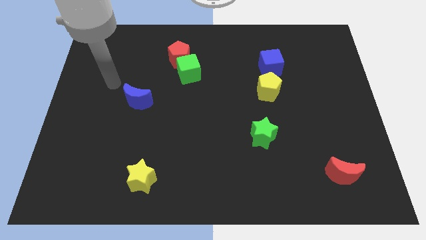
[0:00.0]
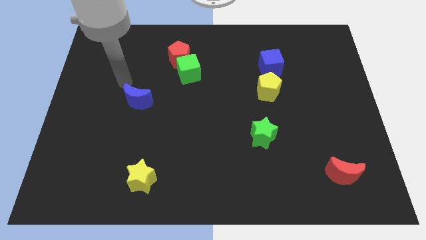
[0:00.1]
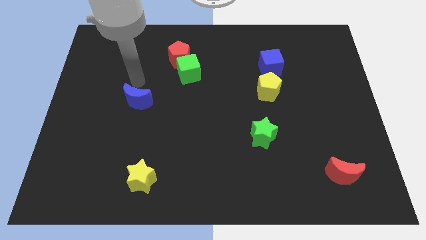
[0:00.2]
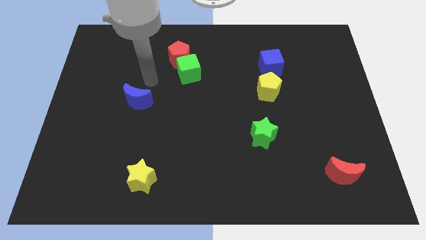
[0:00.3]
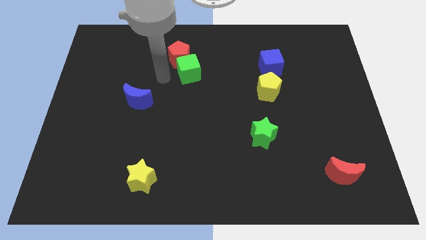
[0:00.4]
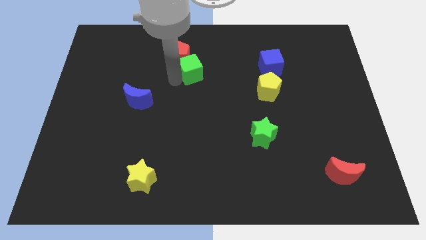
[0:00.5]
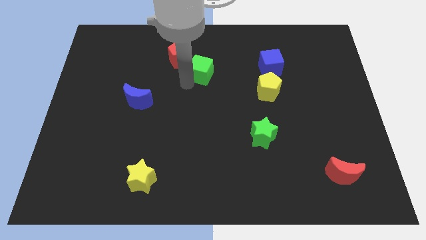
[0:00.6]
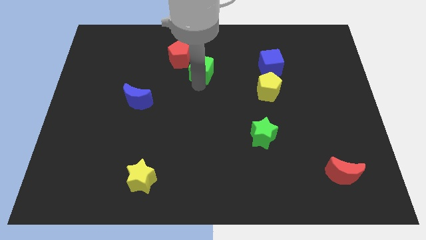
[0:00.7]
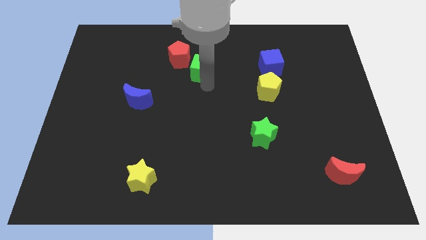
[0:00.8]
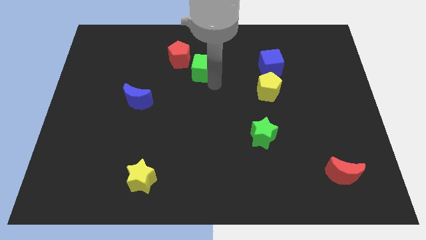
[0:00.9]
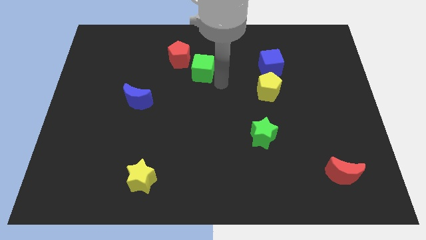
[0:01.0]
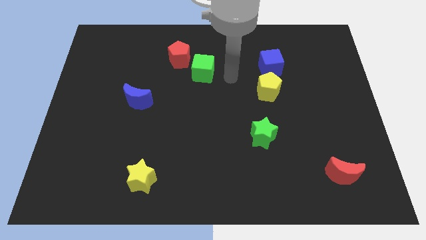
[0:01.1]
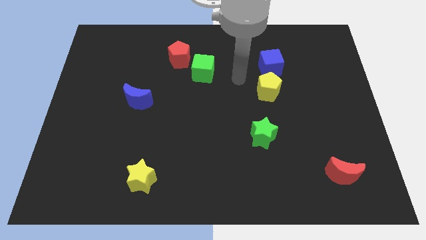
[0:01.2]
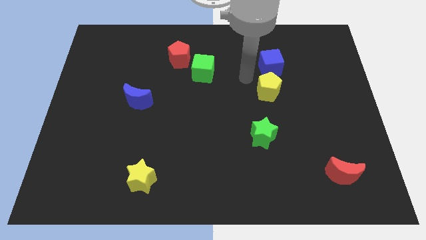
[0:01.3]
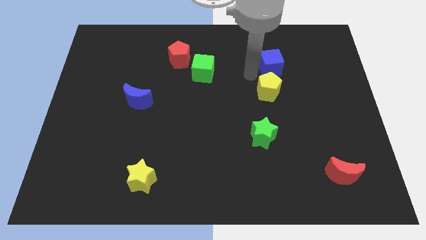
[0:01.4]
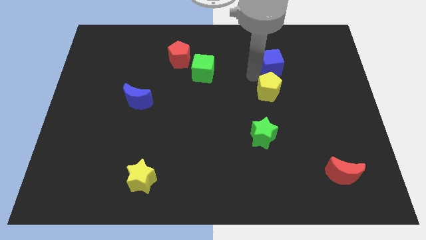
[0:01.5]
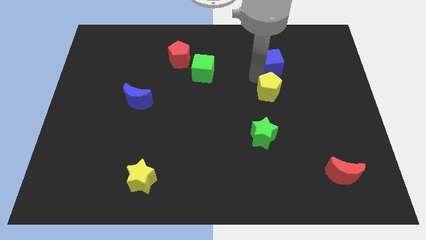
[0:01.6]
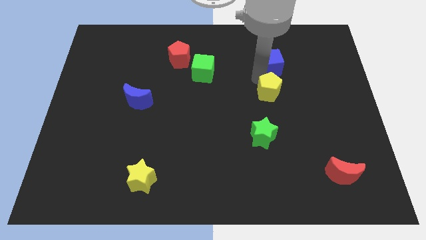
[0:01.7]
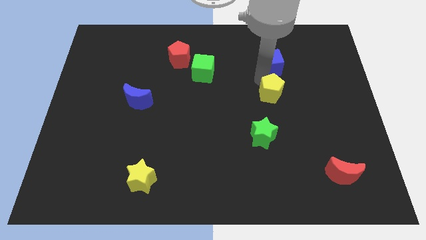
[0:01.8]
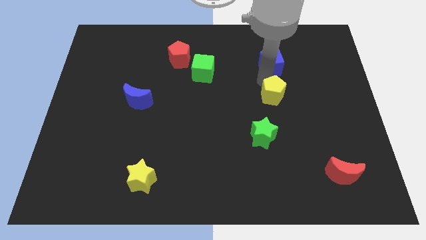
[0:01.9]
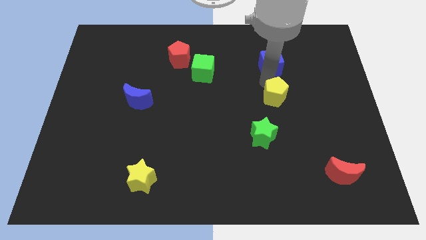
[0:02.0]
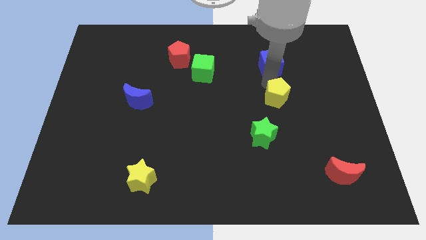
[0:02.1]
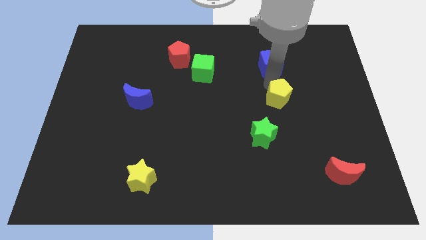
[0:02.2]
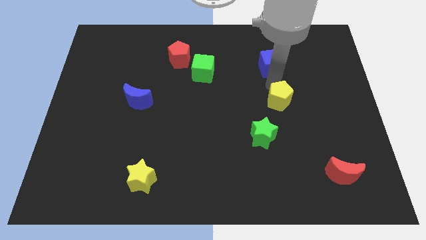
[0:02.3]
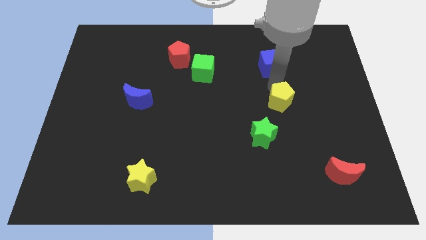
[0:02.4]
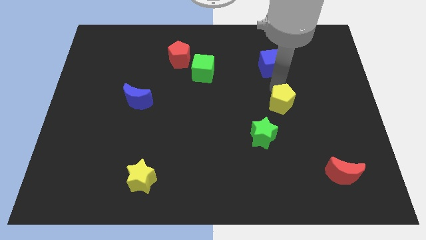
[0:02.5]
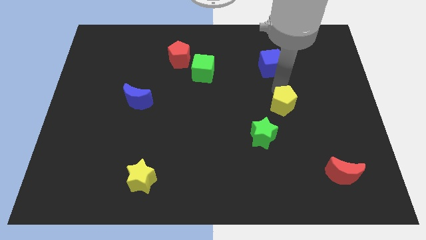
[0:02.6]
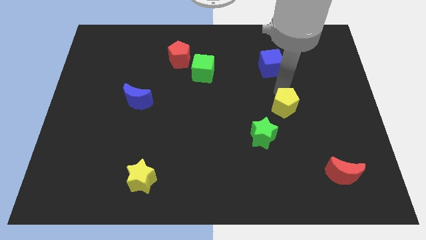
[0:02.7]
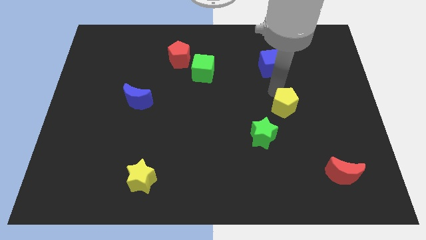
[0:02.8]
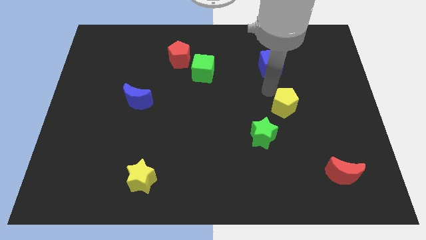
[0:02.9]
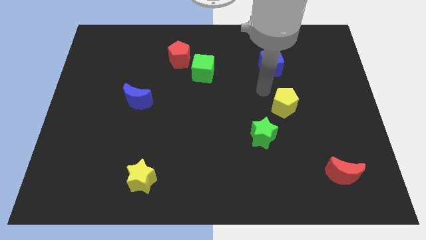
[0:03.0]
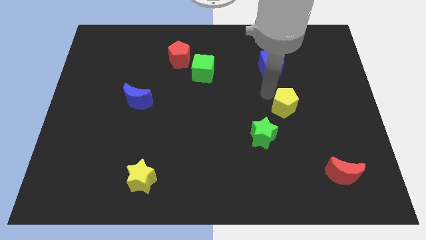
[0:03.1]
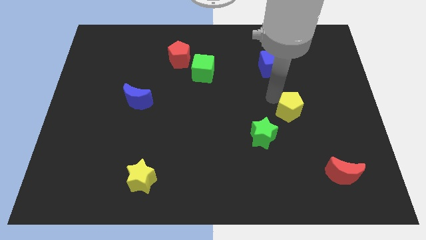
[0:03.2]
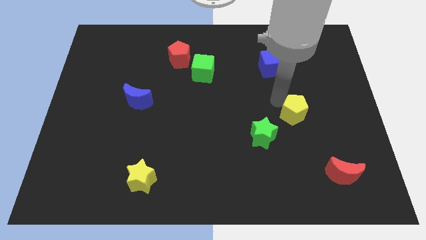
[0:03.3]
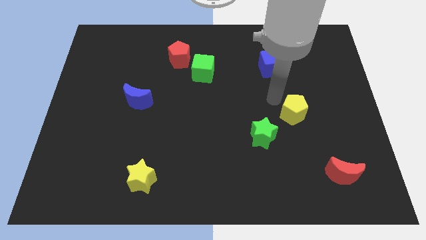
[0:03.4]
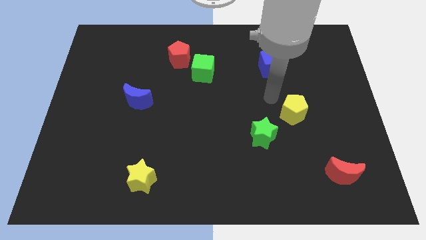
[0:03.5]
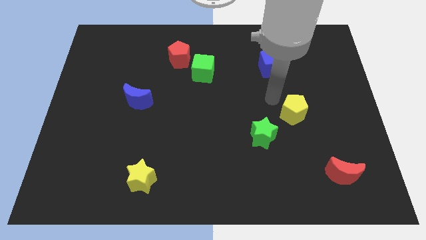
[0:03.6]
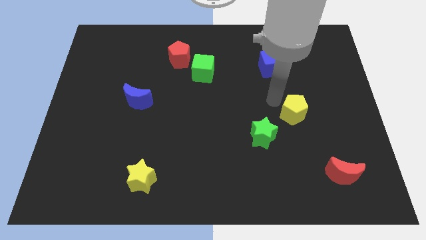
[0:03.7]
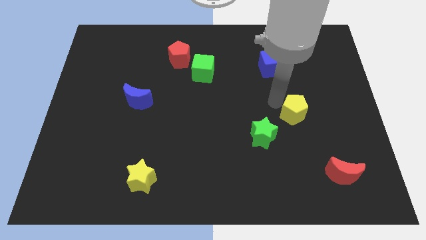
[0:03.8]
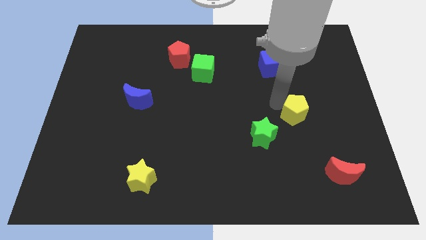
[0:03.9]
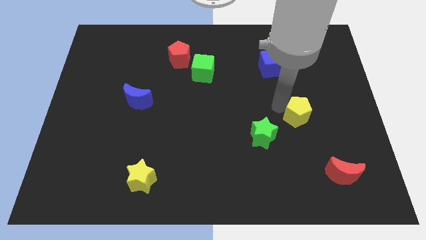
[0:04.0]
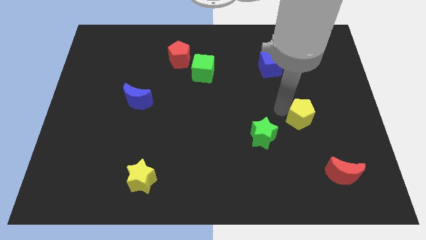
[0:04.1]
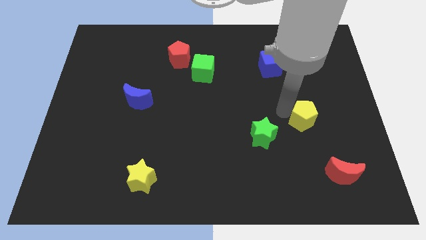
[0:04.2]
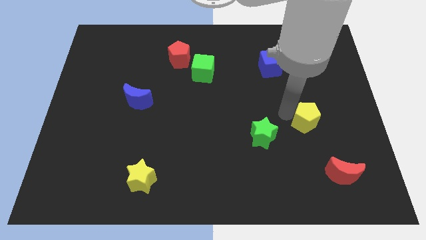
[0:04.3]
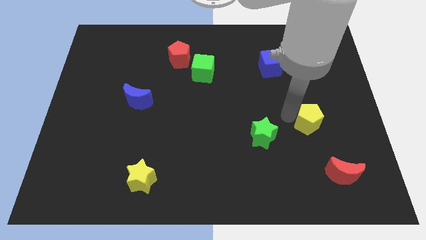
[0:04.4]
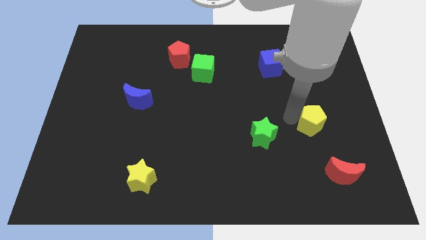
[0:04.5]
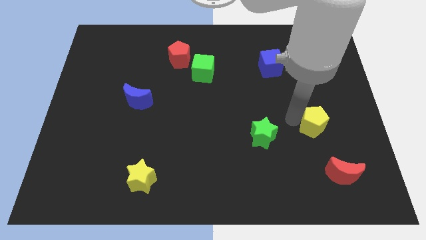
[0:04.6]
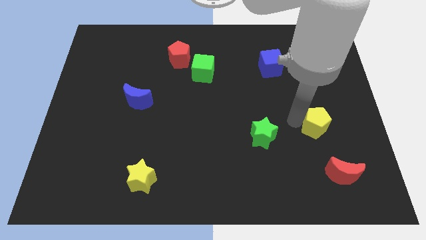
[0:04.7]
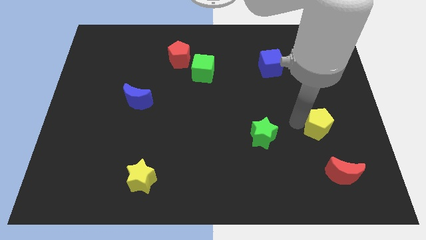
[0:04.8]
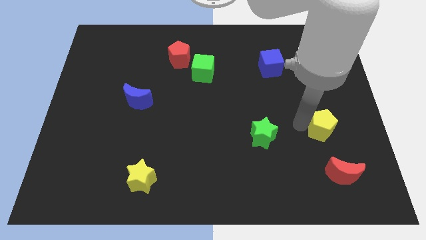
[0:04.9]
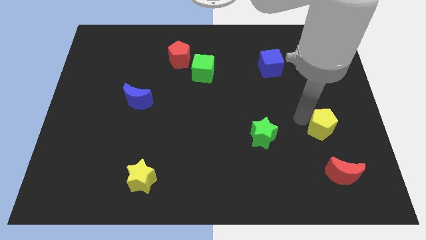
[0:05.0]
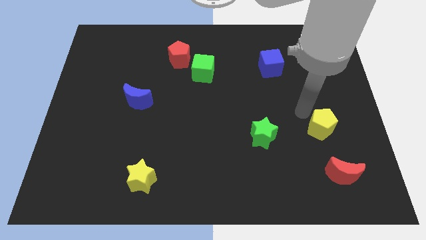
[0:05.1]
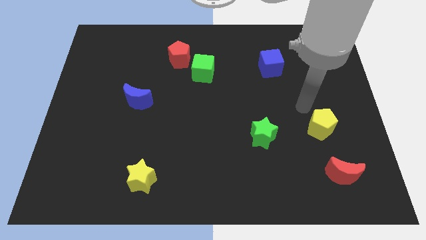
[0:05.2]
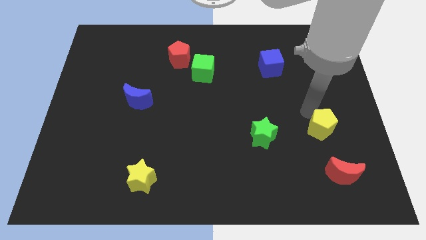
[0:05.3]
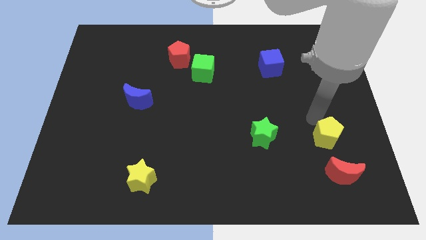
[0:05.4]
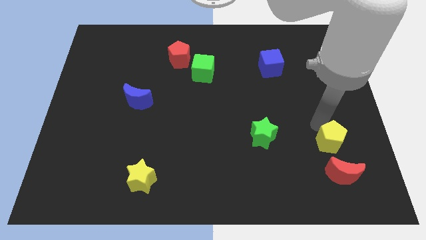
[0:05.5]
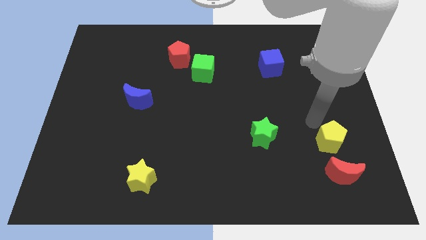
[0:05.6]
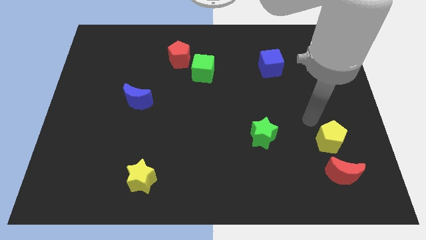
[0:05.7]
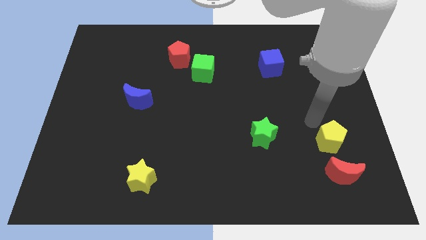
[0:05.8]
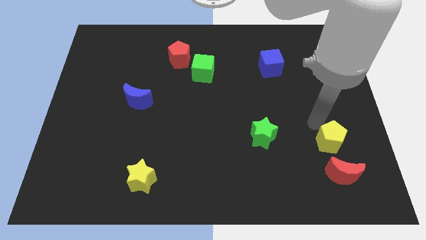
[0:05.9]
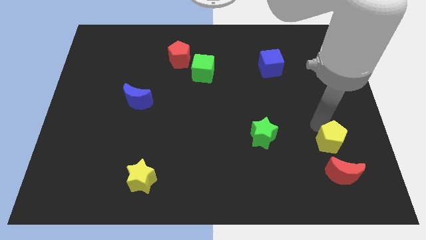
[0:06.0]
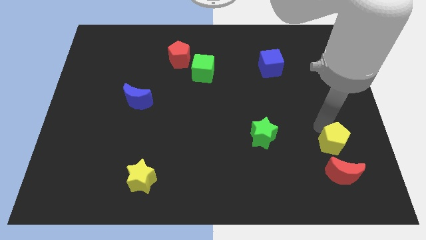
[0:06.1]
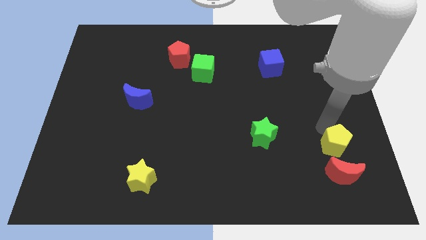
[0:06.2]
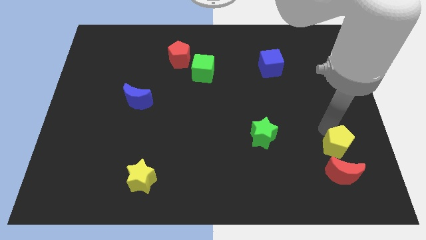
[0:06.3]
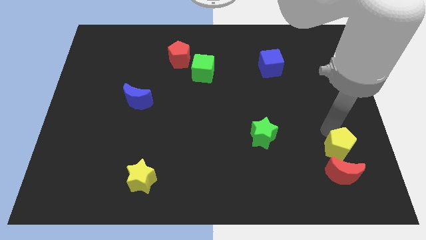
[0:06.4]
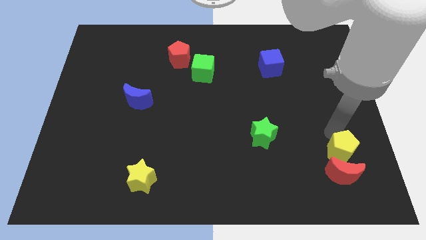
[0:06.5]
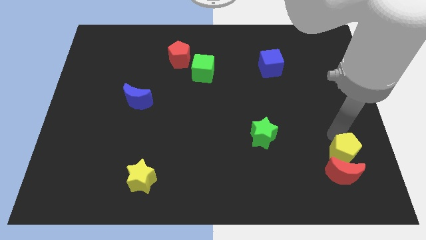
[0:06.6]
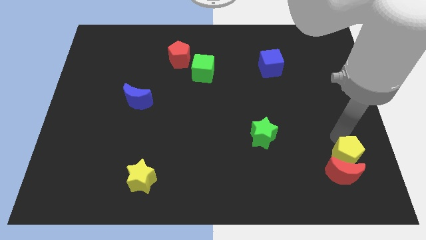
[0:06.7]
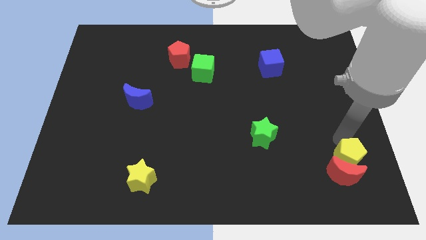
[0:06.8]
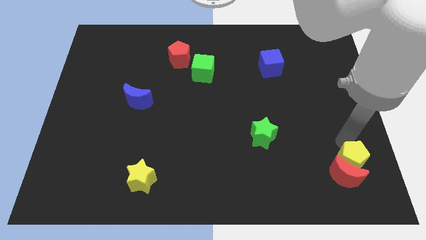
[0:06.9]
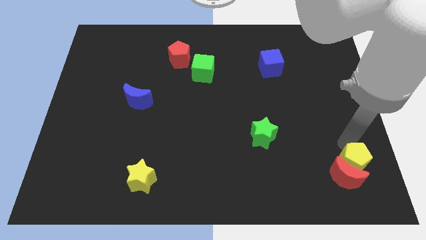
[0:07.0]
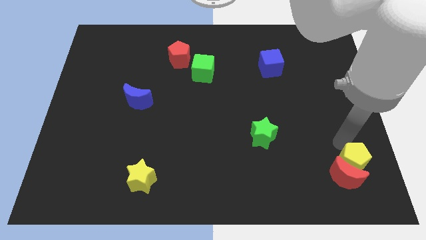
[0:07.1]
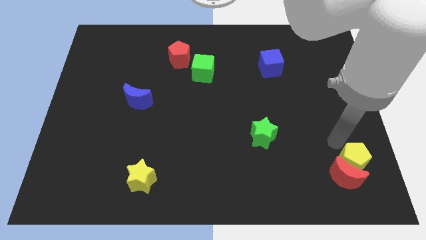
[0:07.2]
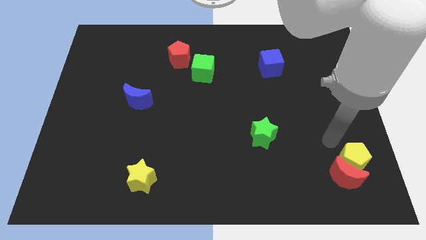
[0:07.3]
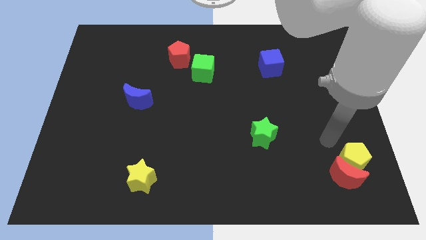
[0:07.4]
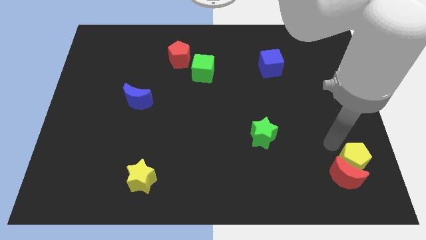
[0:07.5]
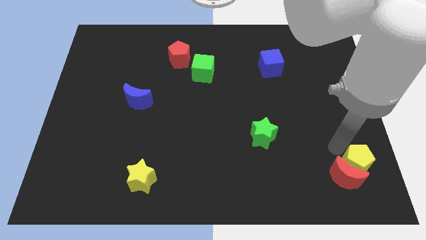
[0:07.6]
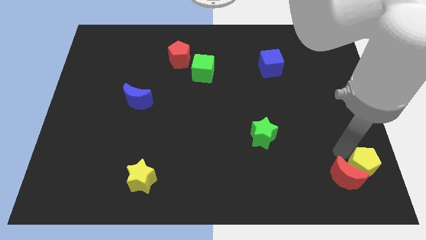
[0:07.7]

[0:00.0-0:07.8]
put the yellow pentagon to the bottom right corner
